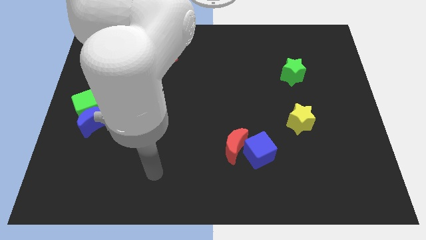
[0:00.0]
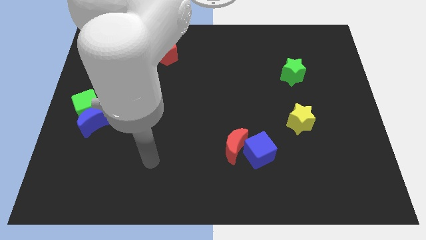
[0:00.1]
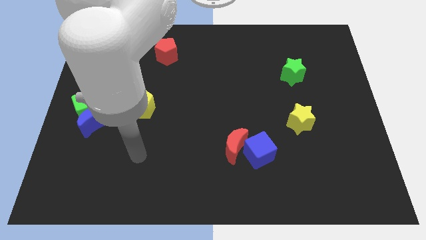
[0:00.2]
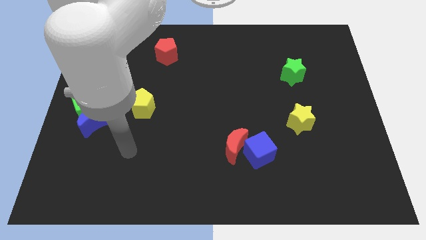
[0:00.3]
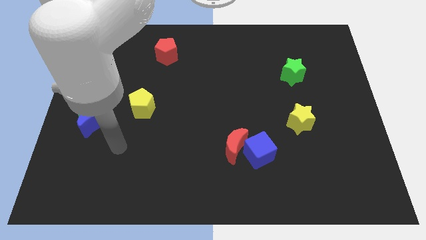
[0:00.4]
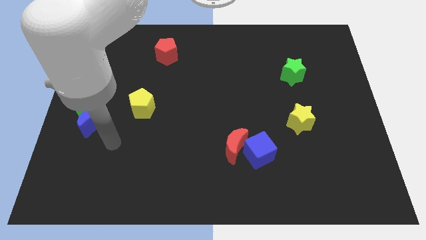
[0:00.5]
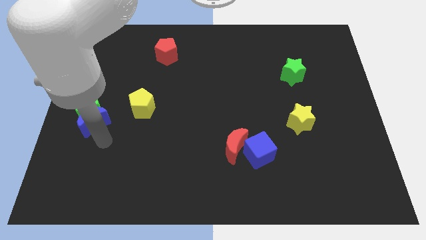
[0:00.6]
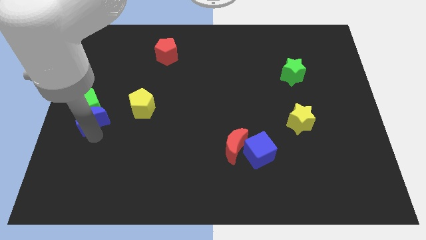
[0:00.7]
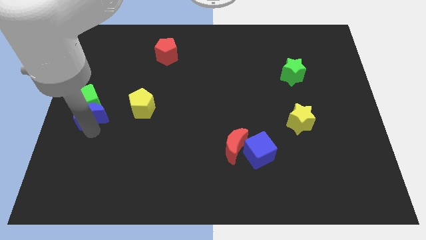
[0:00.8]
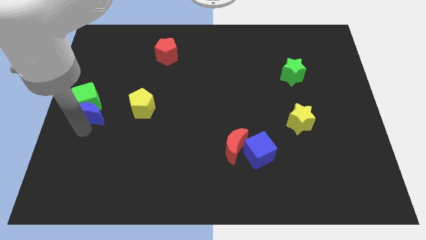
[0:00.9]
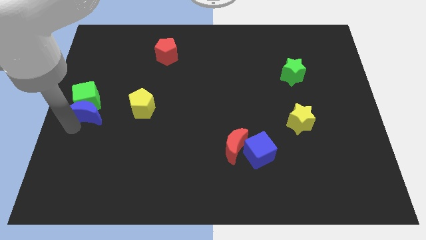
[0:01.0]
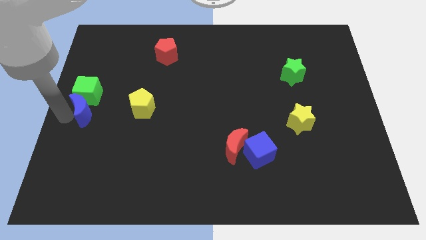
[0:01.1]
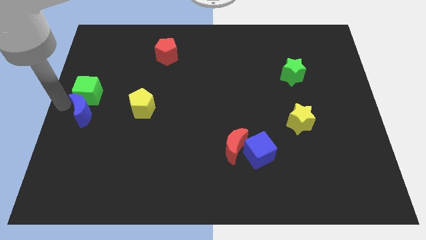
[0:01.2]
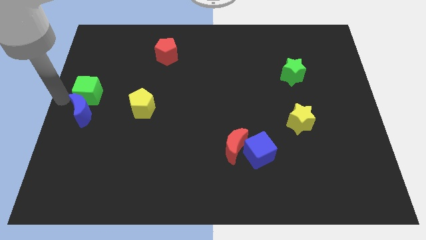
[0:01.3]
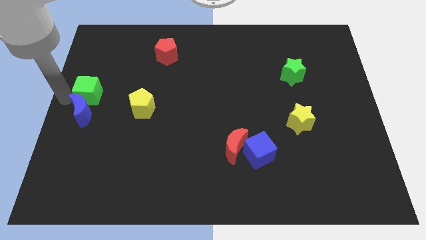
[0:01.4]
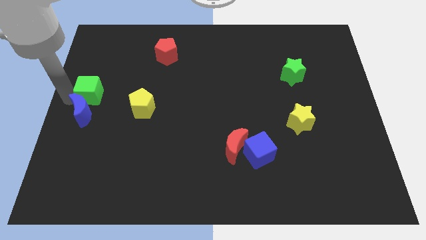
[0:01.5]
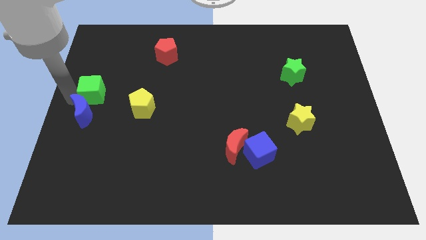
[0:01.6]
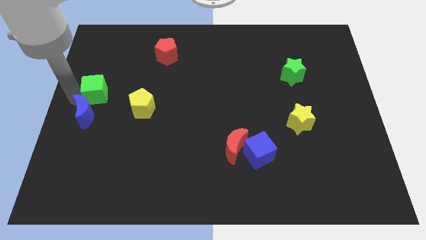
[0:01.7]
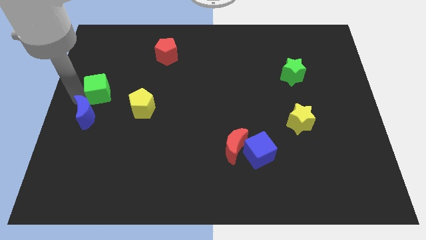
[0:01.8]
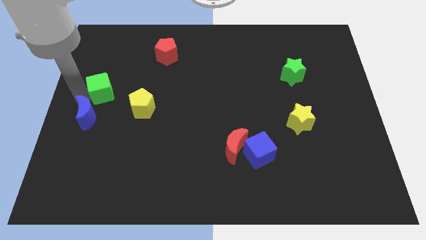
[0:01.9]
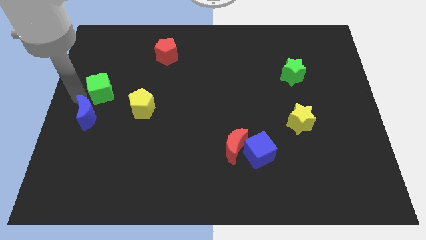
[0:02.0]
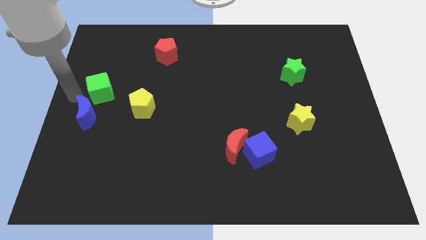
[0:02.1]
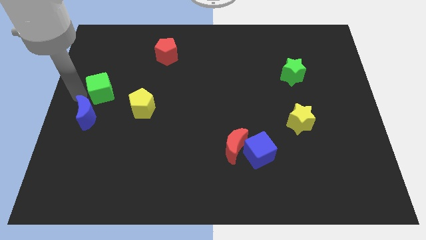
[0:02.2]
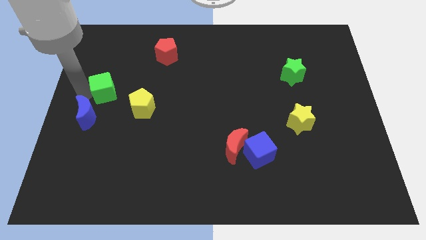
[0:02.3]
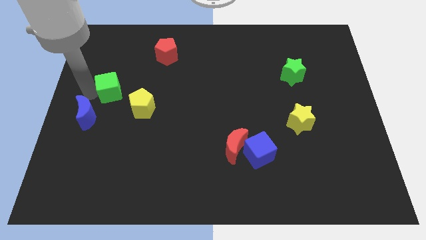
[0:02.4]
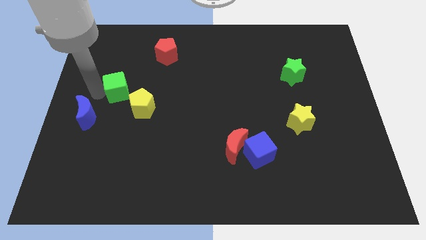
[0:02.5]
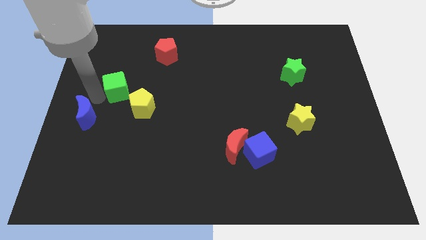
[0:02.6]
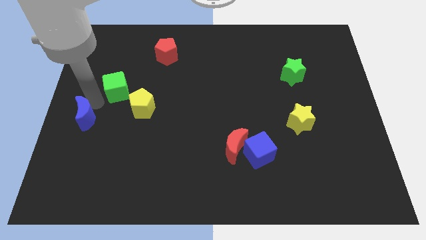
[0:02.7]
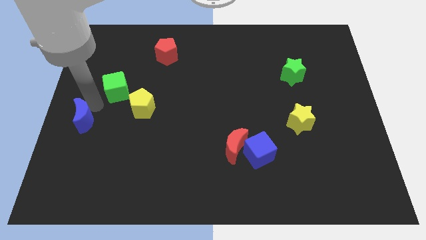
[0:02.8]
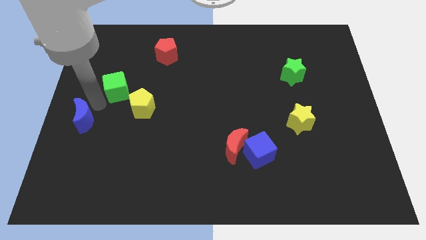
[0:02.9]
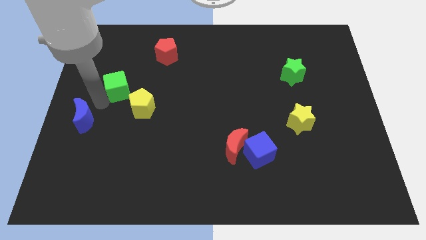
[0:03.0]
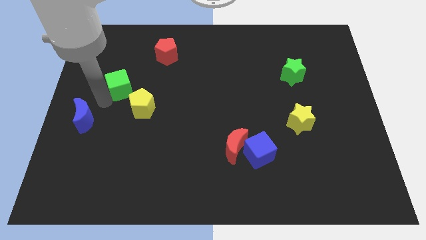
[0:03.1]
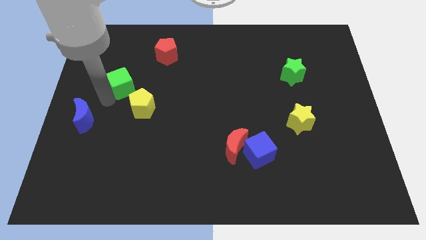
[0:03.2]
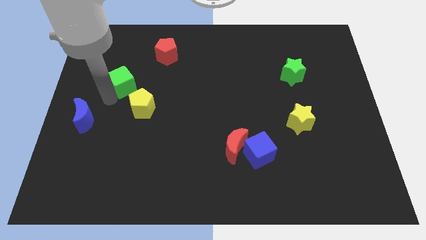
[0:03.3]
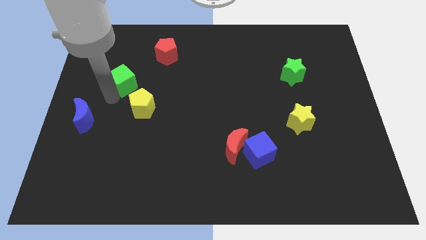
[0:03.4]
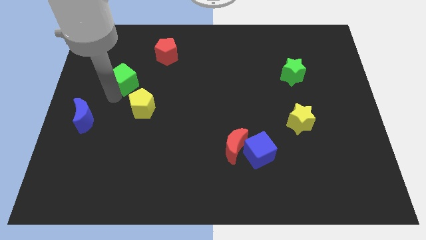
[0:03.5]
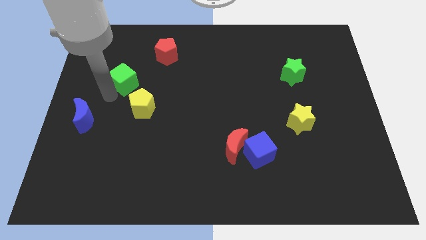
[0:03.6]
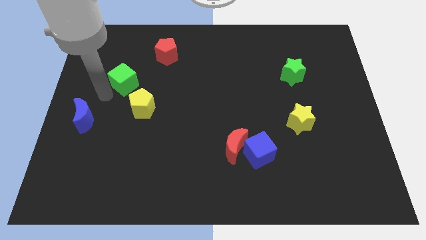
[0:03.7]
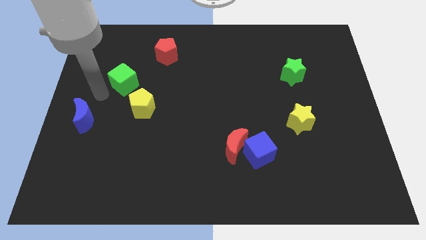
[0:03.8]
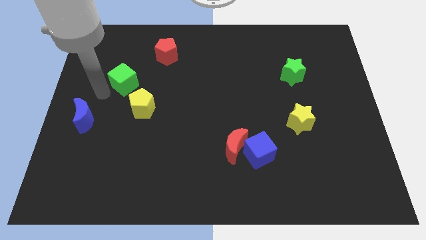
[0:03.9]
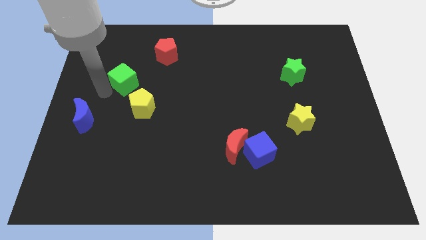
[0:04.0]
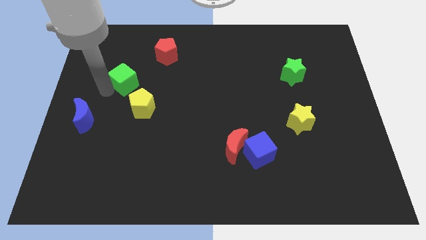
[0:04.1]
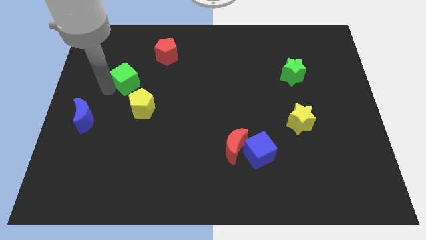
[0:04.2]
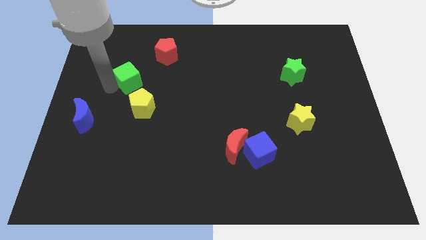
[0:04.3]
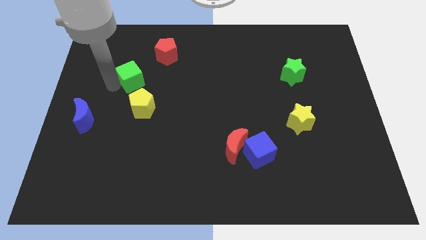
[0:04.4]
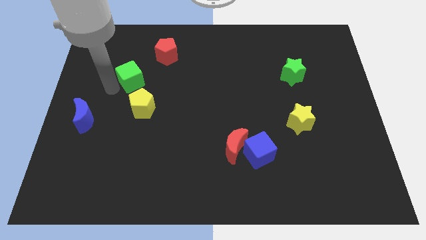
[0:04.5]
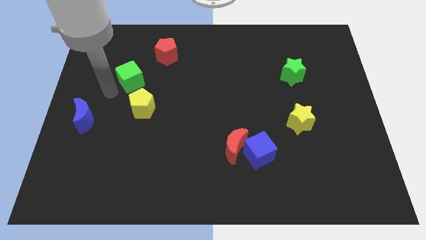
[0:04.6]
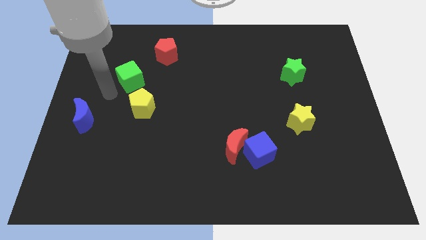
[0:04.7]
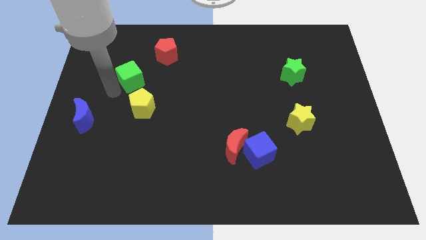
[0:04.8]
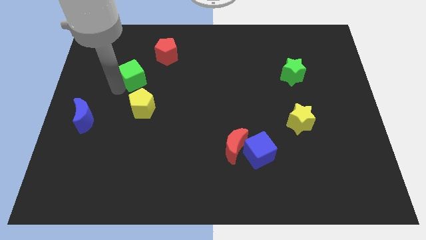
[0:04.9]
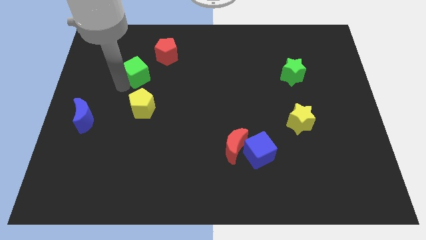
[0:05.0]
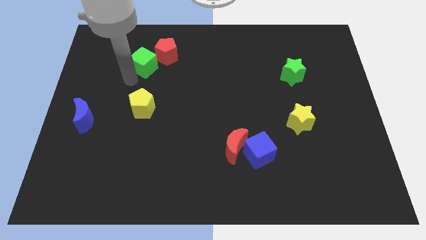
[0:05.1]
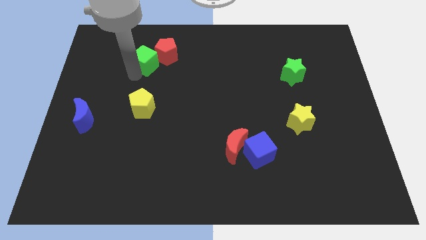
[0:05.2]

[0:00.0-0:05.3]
slide the green cube close to the red pentagon

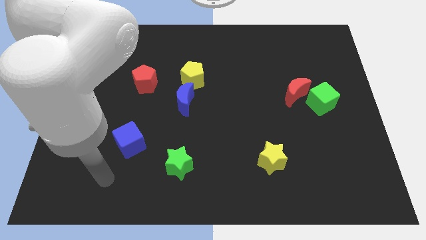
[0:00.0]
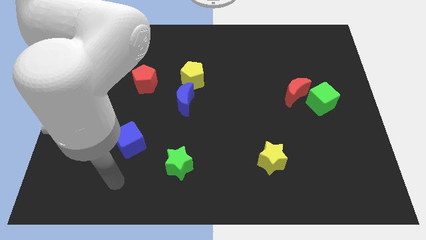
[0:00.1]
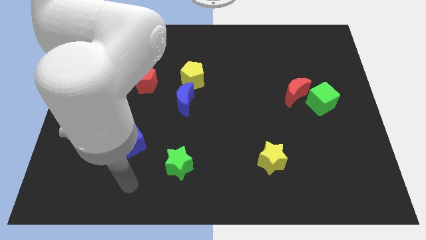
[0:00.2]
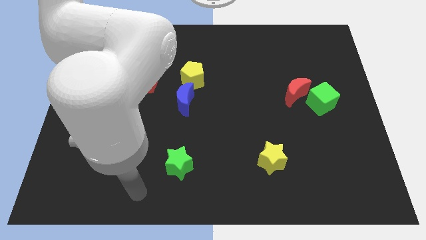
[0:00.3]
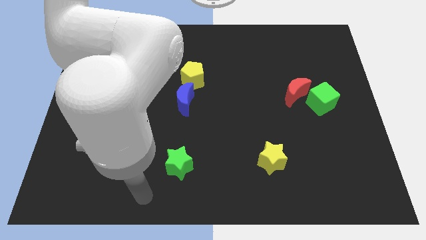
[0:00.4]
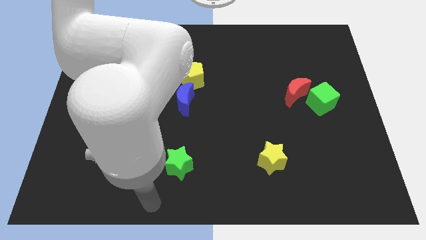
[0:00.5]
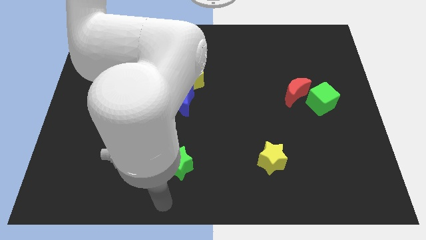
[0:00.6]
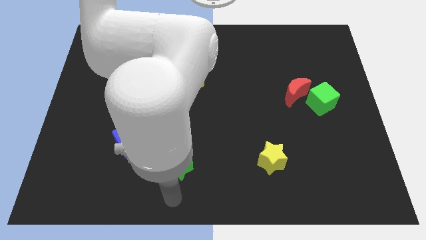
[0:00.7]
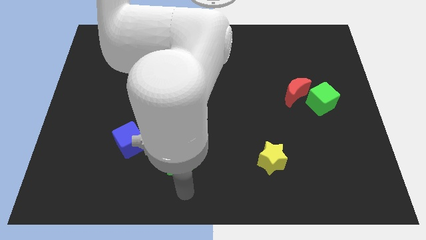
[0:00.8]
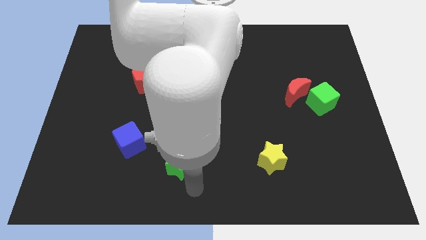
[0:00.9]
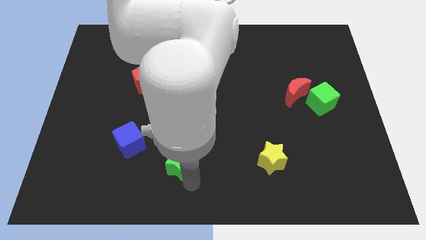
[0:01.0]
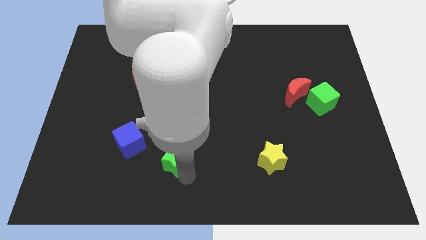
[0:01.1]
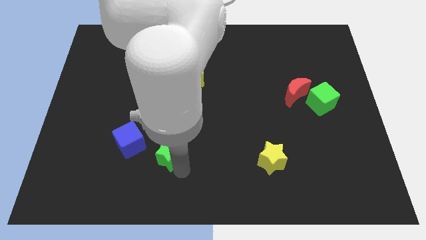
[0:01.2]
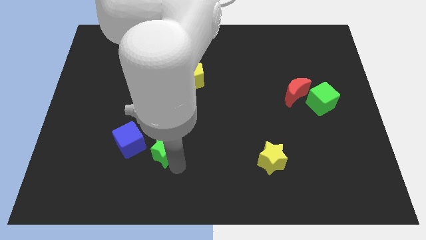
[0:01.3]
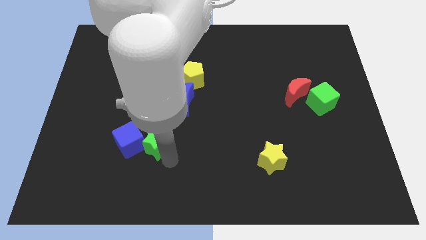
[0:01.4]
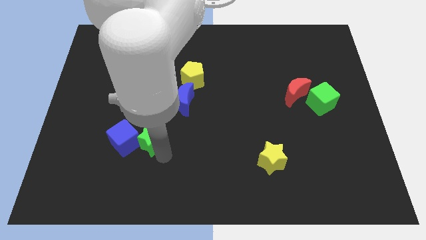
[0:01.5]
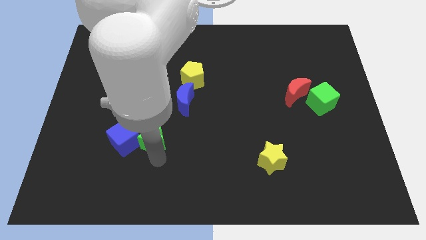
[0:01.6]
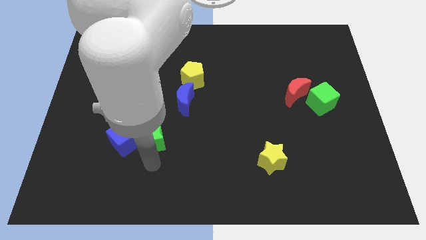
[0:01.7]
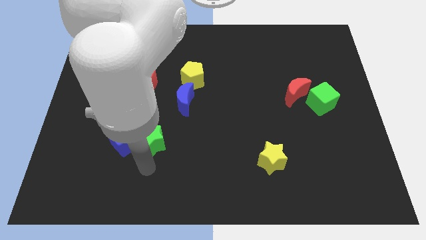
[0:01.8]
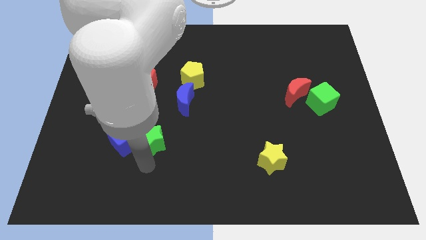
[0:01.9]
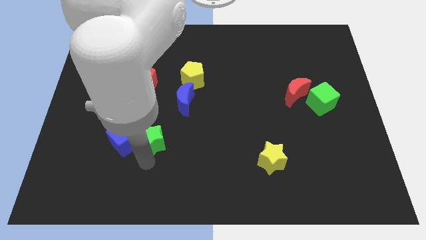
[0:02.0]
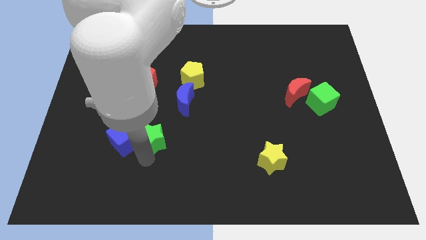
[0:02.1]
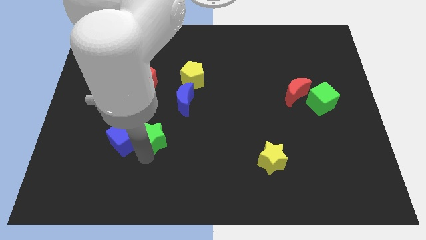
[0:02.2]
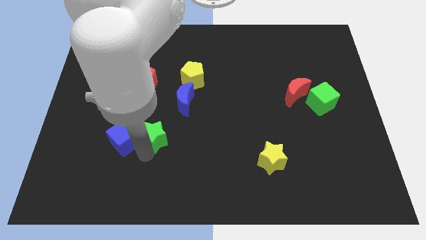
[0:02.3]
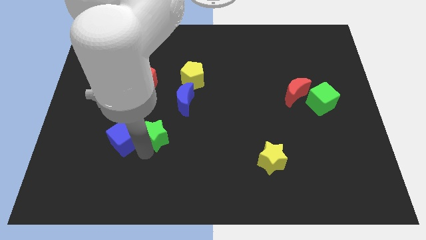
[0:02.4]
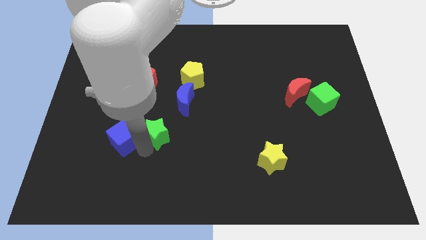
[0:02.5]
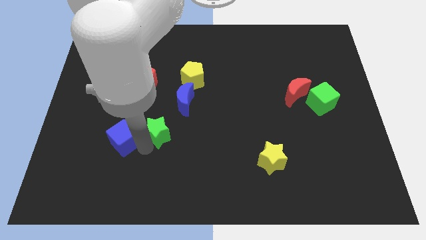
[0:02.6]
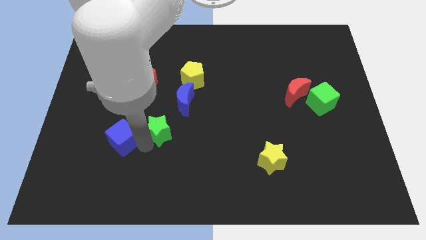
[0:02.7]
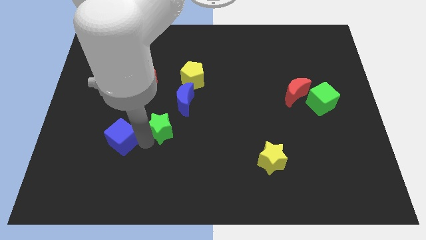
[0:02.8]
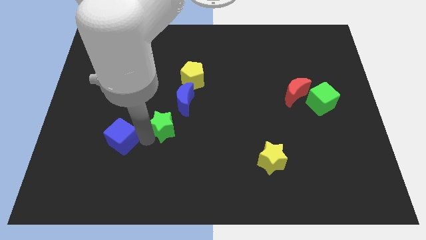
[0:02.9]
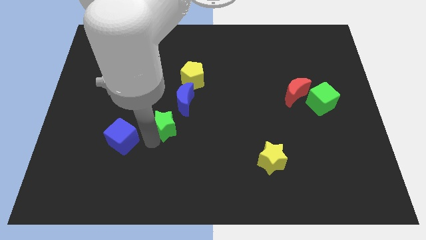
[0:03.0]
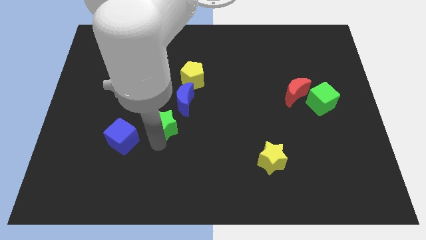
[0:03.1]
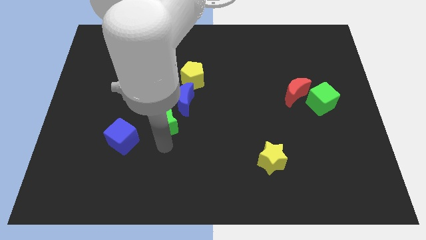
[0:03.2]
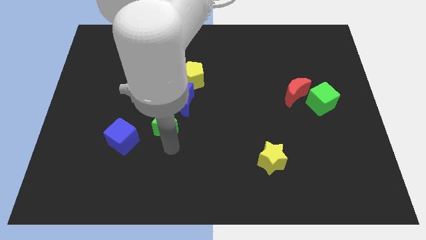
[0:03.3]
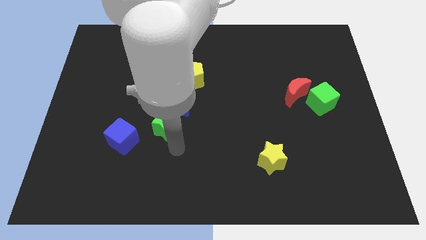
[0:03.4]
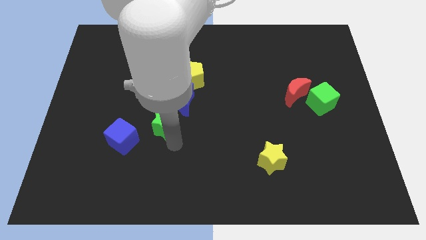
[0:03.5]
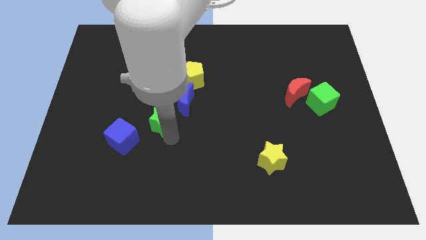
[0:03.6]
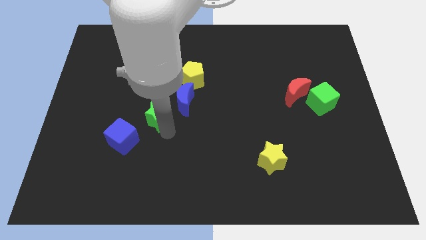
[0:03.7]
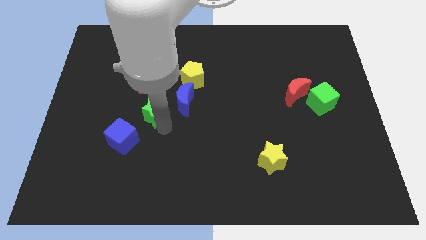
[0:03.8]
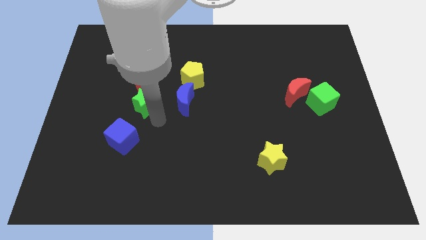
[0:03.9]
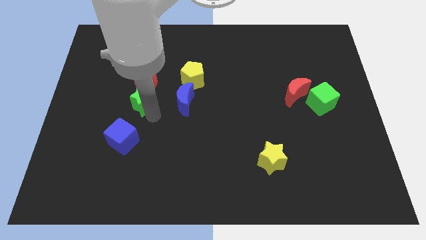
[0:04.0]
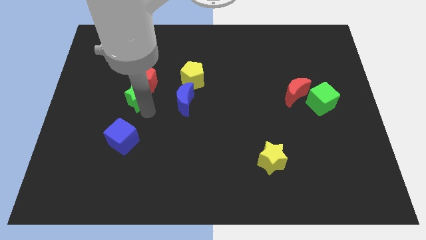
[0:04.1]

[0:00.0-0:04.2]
put the green star next to the red pentagon
